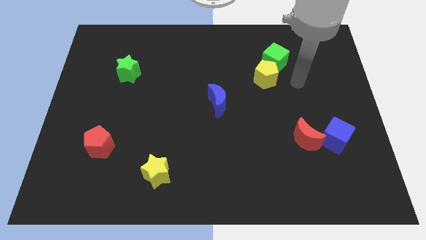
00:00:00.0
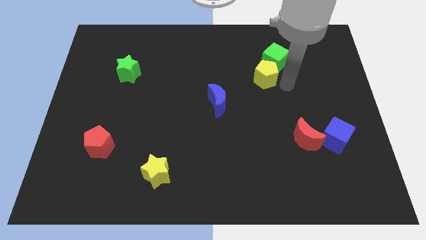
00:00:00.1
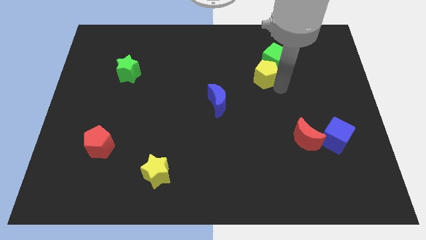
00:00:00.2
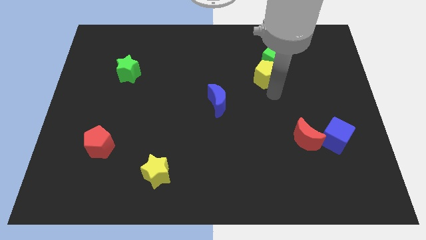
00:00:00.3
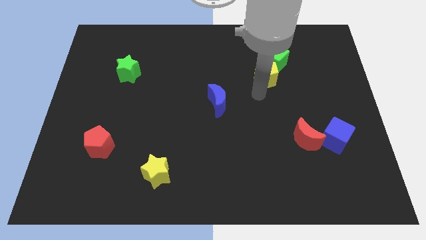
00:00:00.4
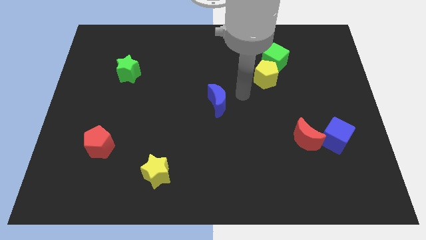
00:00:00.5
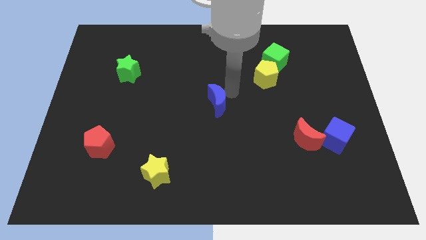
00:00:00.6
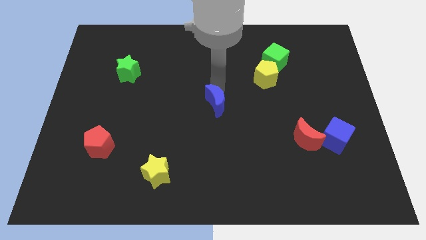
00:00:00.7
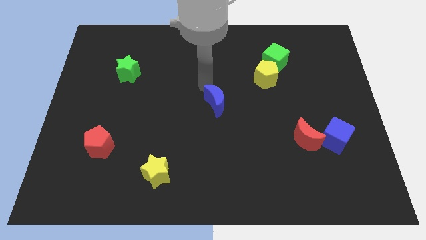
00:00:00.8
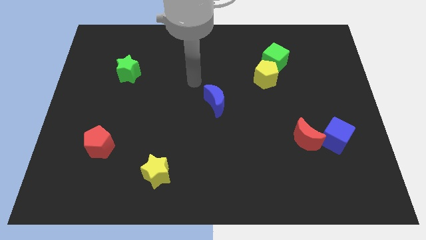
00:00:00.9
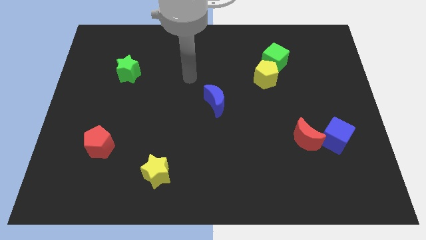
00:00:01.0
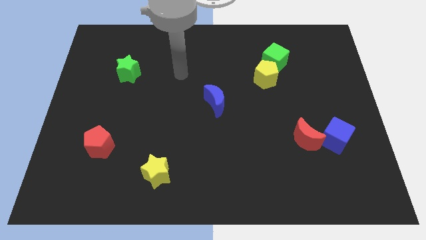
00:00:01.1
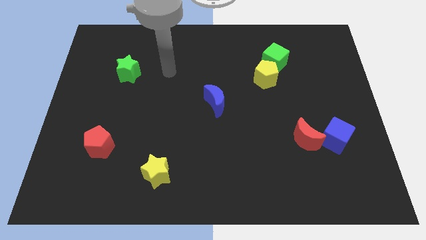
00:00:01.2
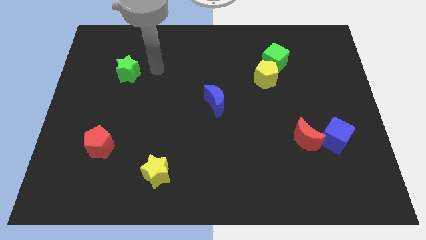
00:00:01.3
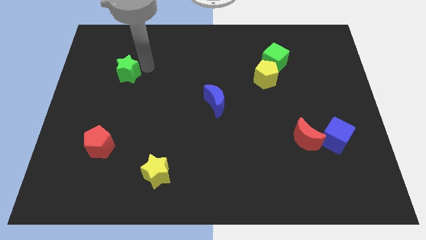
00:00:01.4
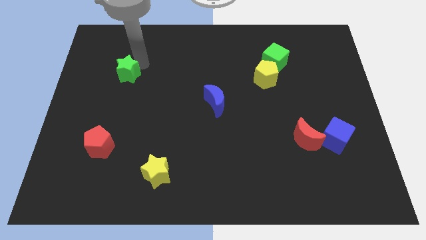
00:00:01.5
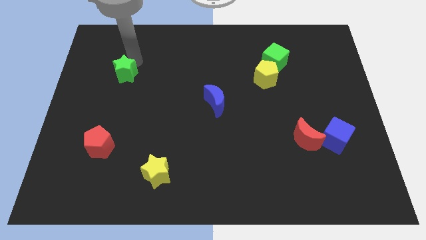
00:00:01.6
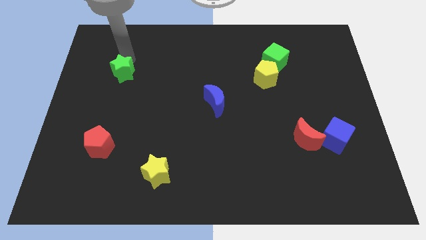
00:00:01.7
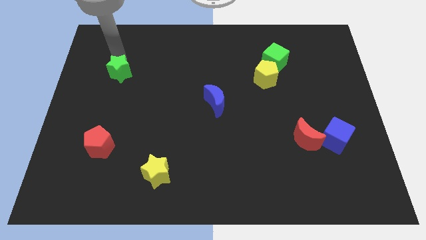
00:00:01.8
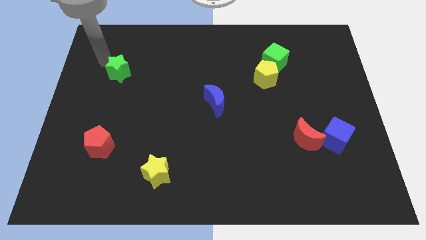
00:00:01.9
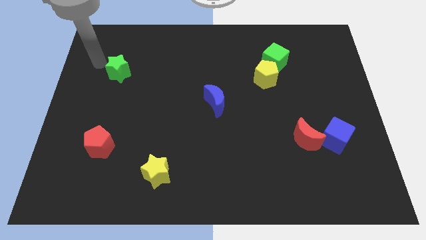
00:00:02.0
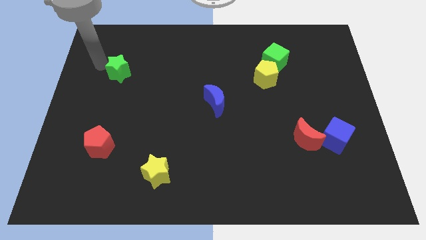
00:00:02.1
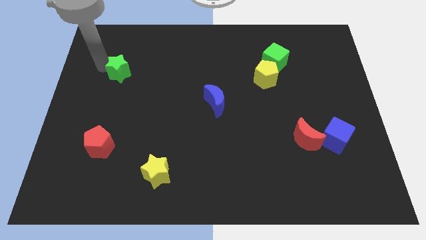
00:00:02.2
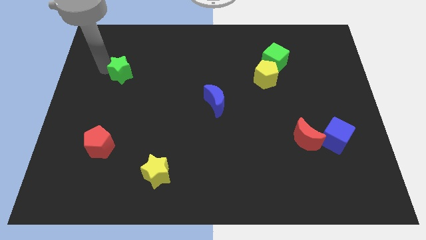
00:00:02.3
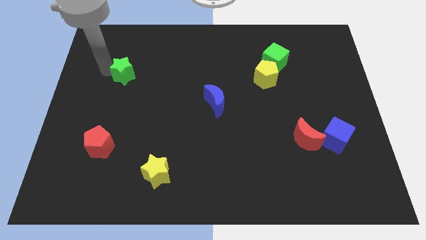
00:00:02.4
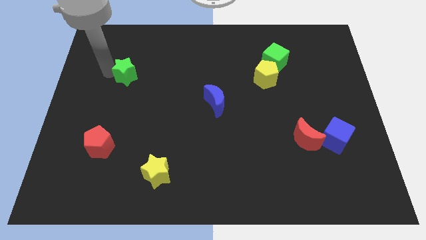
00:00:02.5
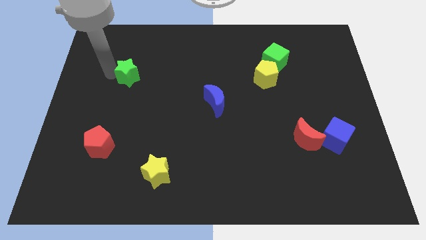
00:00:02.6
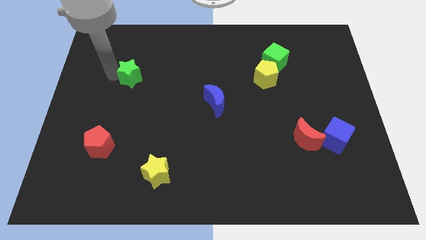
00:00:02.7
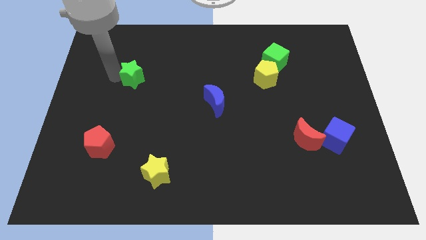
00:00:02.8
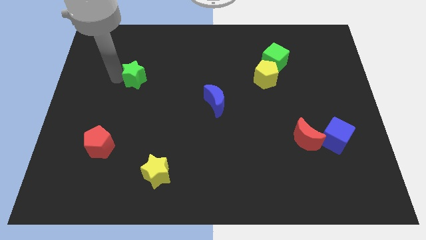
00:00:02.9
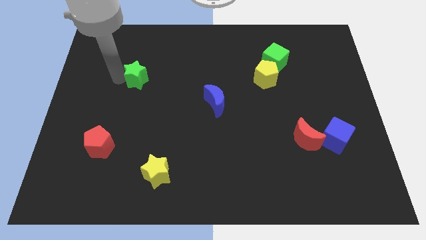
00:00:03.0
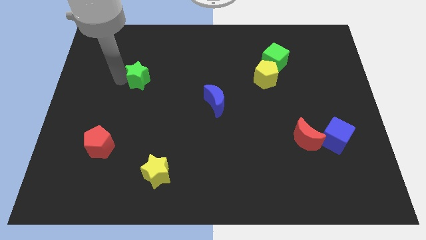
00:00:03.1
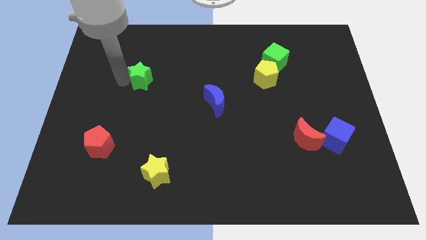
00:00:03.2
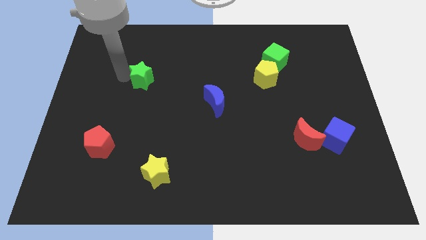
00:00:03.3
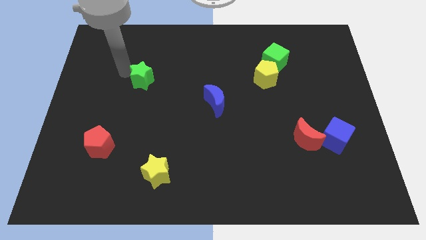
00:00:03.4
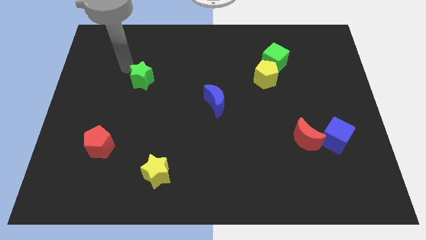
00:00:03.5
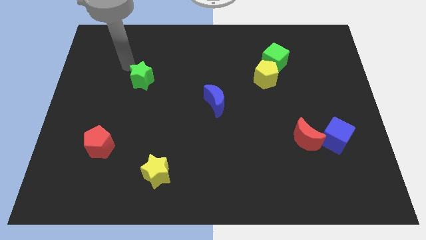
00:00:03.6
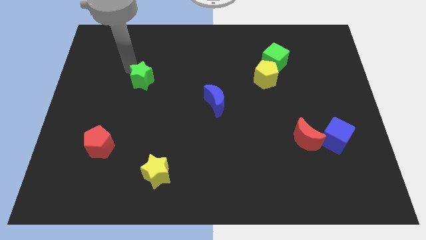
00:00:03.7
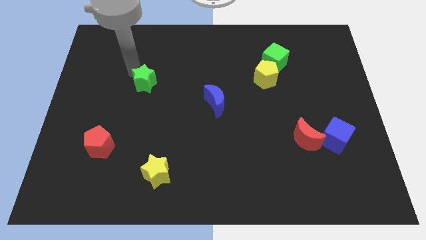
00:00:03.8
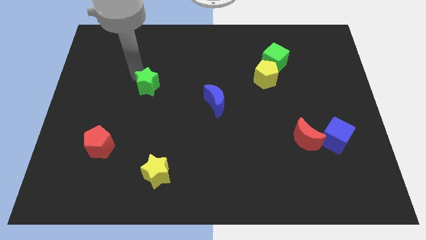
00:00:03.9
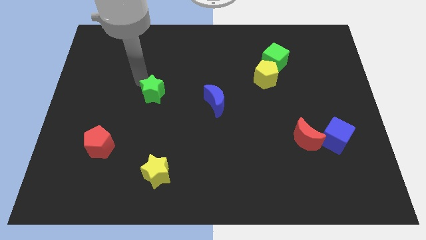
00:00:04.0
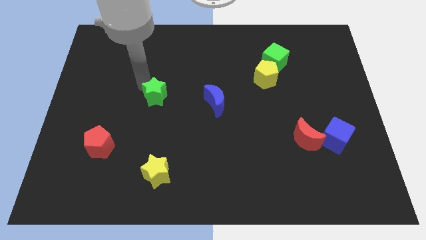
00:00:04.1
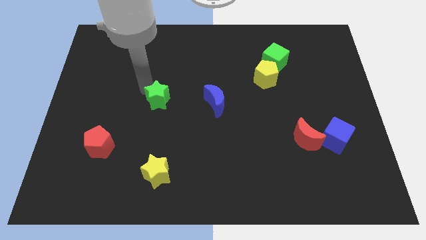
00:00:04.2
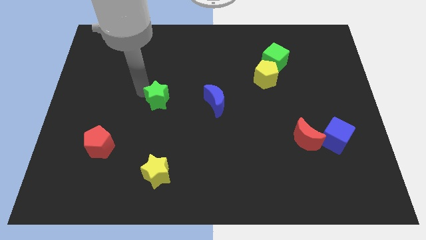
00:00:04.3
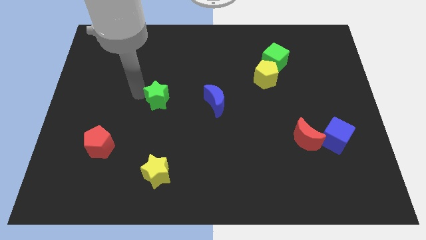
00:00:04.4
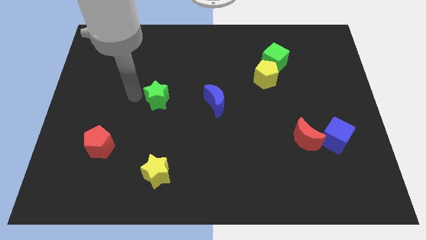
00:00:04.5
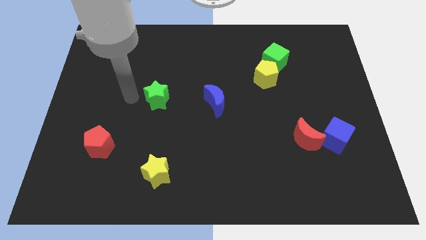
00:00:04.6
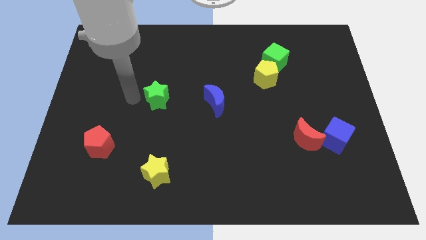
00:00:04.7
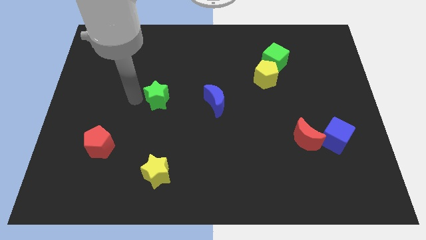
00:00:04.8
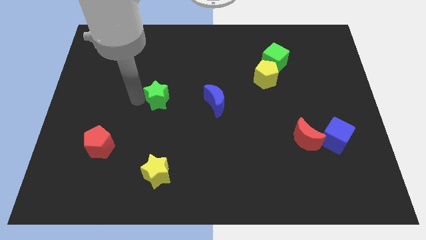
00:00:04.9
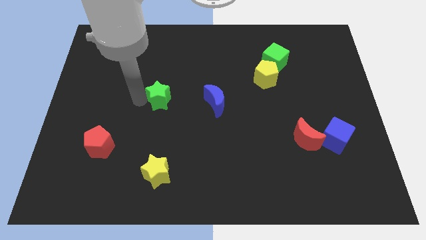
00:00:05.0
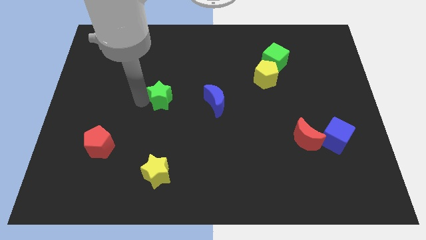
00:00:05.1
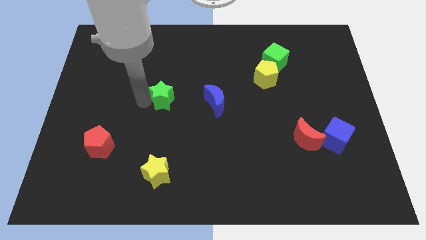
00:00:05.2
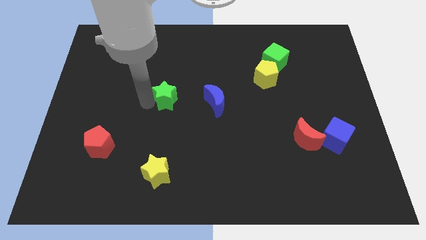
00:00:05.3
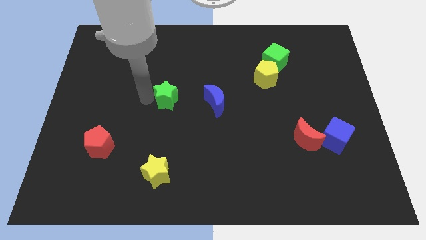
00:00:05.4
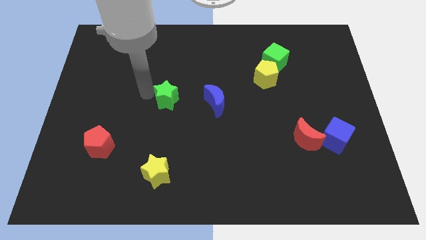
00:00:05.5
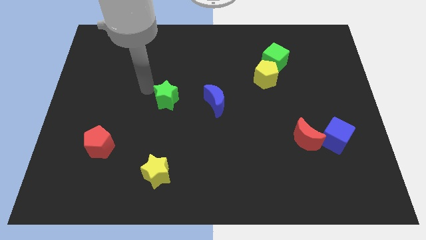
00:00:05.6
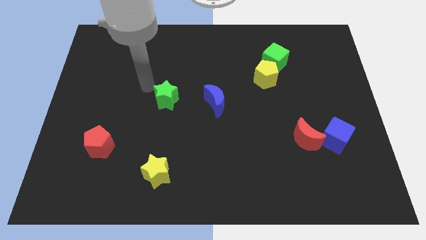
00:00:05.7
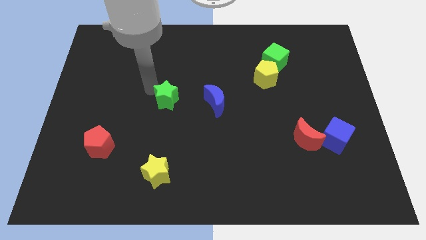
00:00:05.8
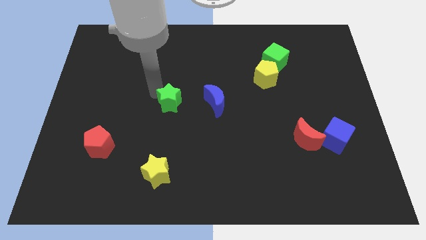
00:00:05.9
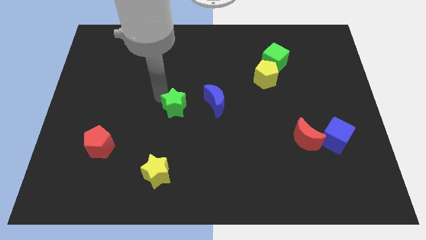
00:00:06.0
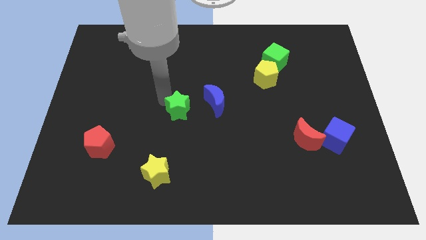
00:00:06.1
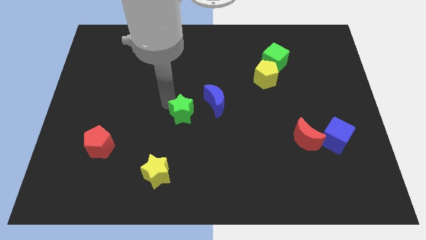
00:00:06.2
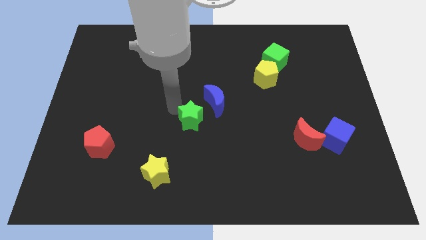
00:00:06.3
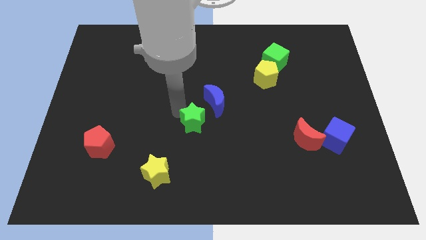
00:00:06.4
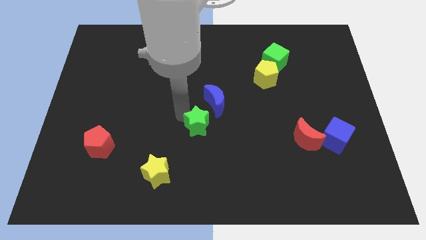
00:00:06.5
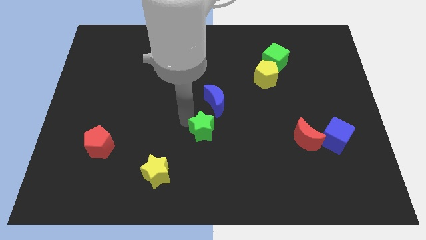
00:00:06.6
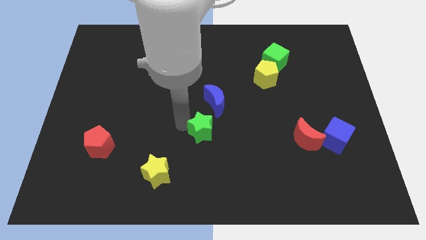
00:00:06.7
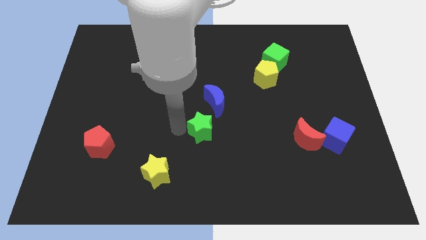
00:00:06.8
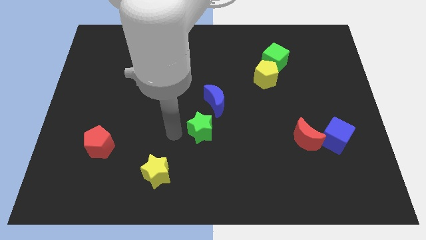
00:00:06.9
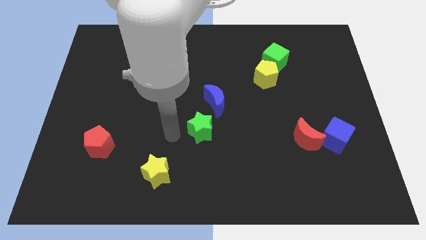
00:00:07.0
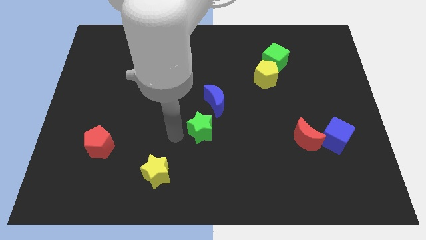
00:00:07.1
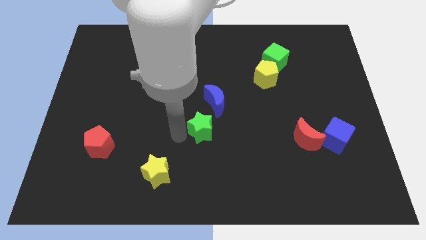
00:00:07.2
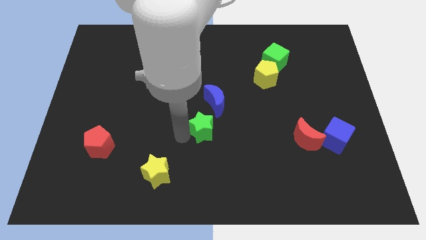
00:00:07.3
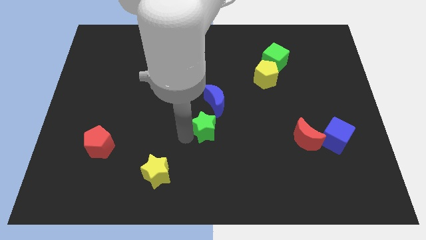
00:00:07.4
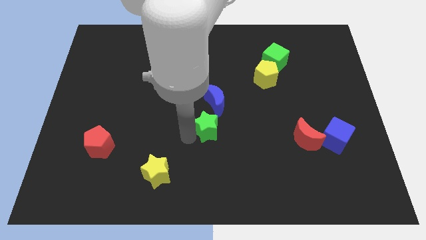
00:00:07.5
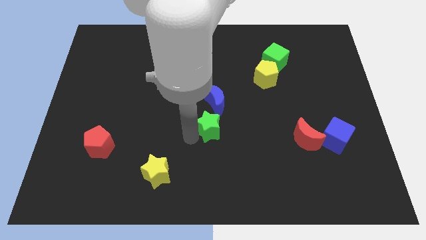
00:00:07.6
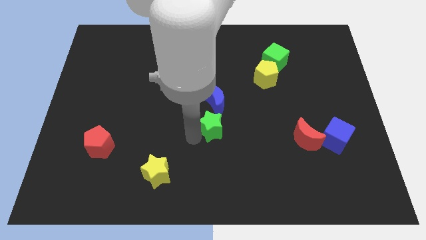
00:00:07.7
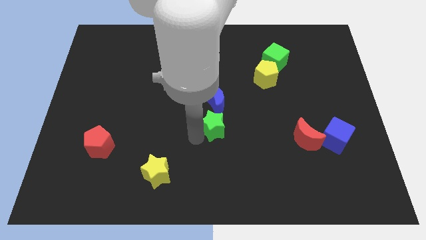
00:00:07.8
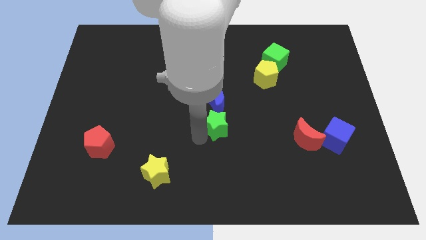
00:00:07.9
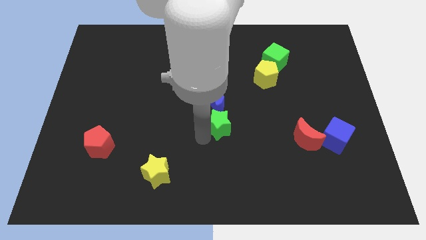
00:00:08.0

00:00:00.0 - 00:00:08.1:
push the green star to the bottom right side of the blue moon

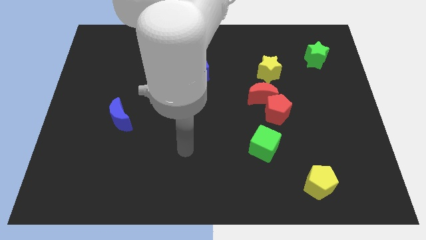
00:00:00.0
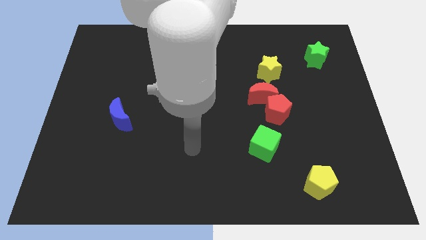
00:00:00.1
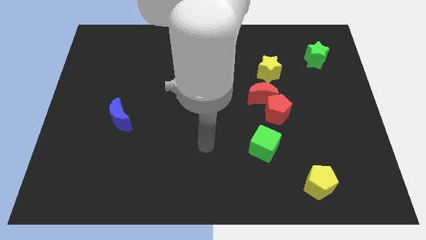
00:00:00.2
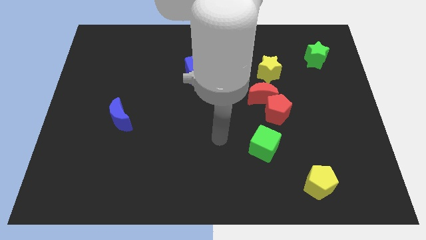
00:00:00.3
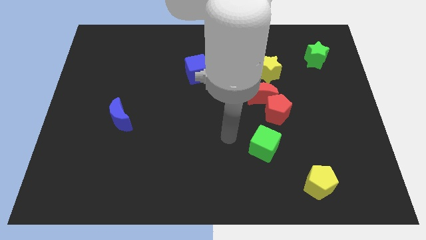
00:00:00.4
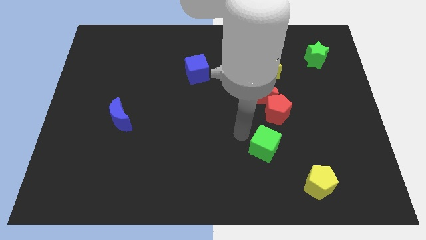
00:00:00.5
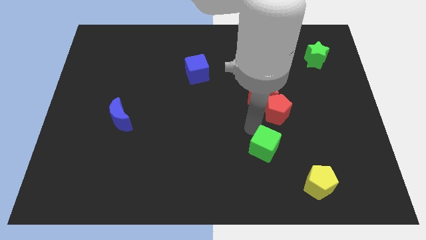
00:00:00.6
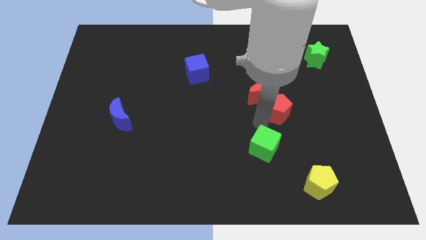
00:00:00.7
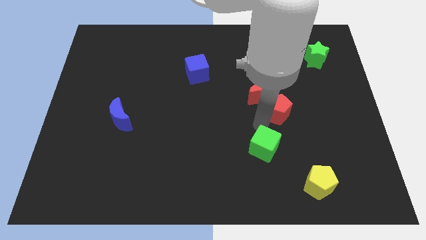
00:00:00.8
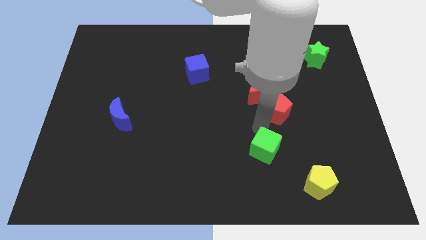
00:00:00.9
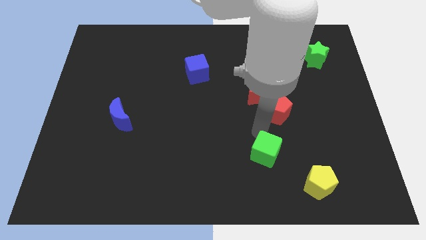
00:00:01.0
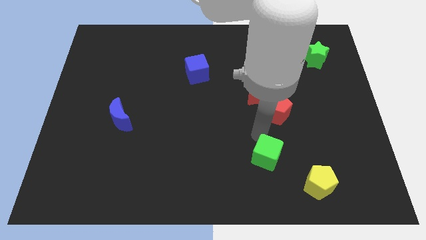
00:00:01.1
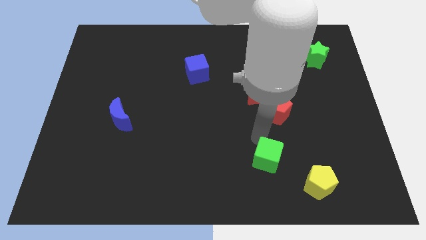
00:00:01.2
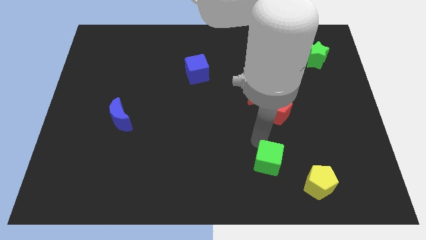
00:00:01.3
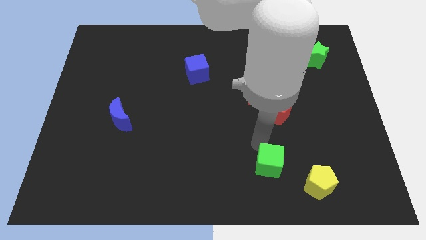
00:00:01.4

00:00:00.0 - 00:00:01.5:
slide the green cube just left of the yellow pentagon
